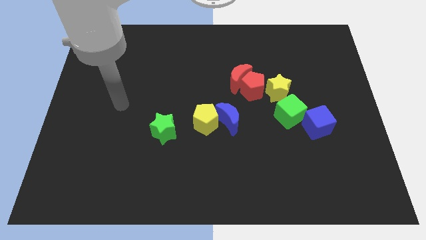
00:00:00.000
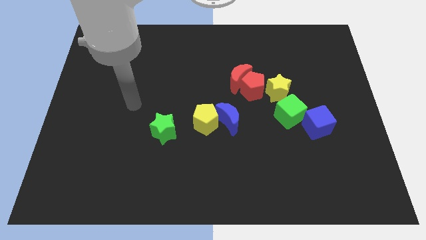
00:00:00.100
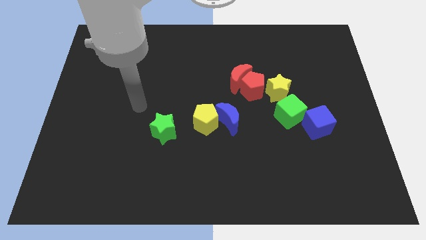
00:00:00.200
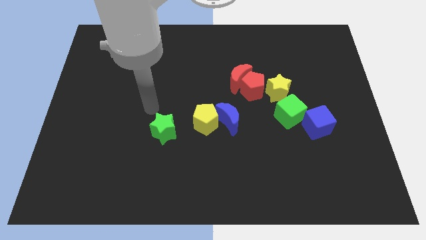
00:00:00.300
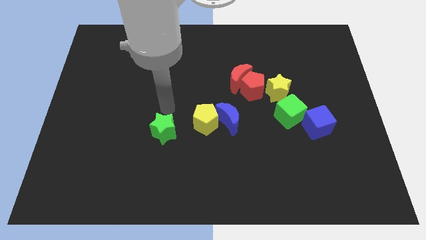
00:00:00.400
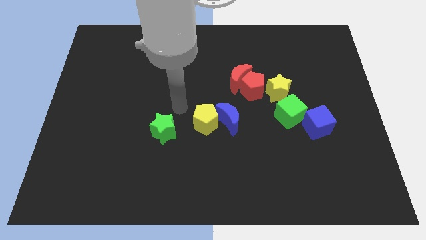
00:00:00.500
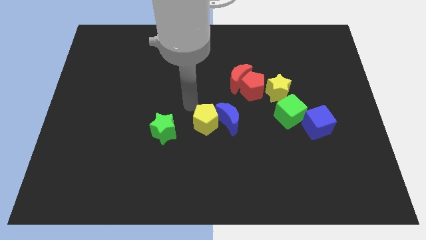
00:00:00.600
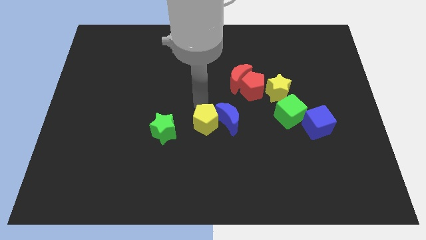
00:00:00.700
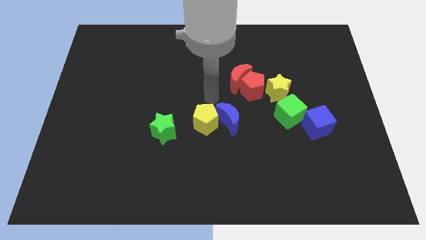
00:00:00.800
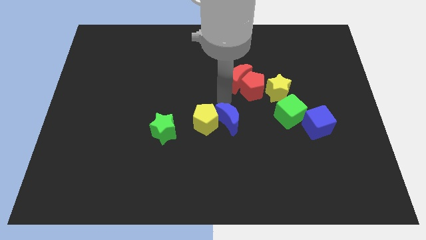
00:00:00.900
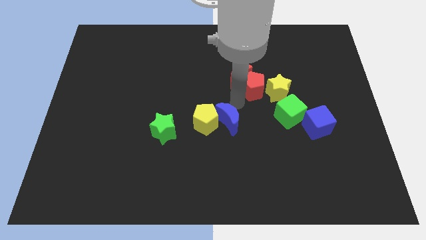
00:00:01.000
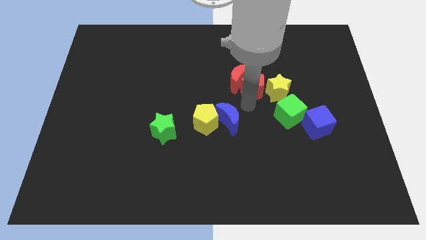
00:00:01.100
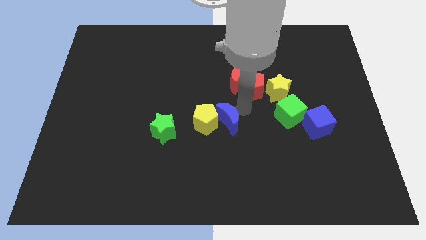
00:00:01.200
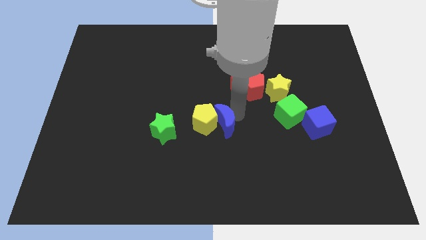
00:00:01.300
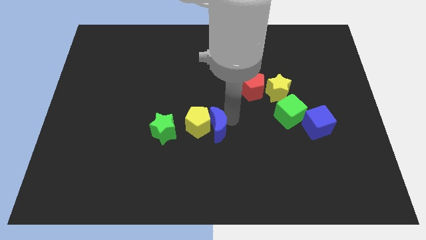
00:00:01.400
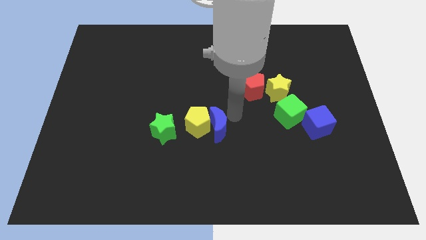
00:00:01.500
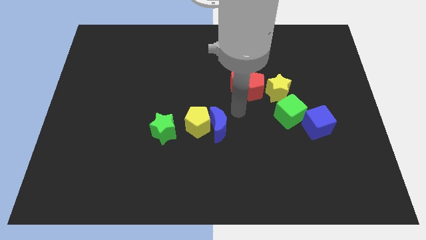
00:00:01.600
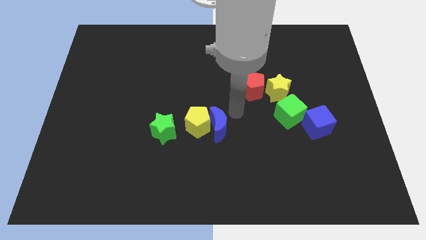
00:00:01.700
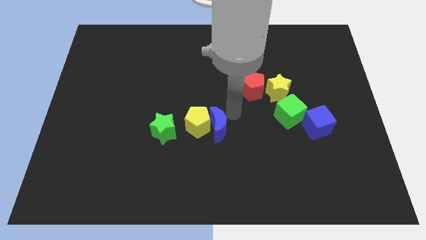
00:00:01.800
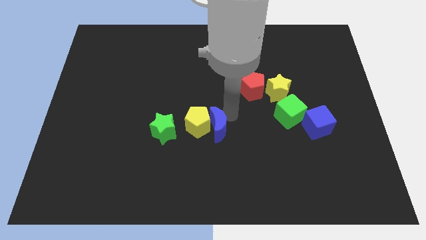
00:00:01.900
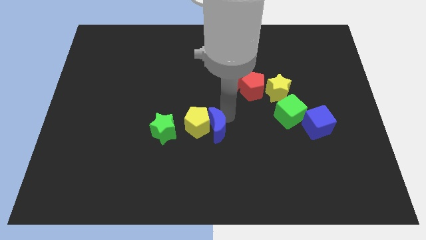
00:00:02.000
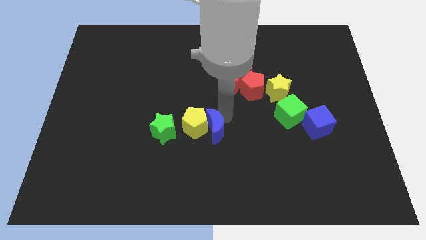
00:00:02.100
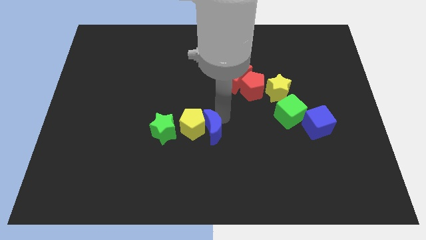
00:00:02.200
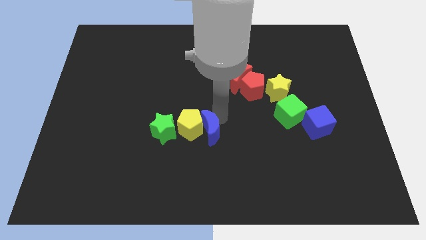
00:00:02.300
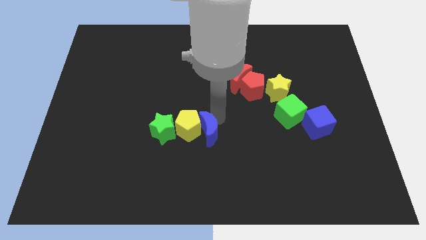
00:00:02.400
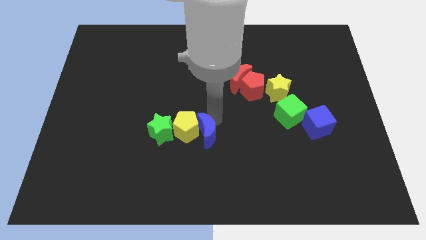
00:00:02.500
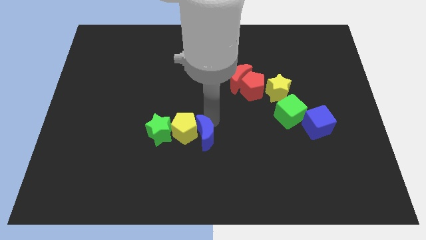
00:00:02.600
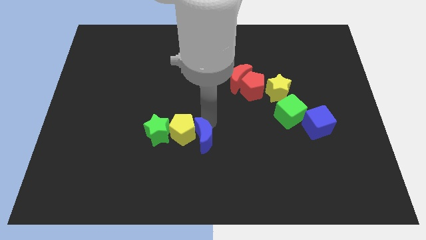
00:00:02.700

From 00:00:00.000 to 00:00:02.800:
push the blue moon a bit down and then to the left

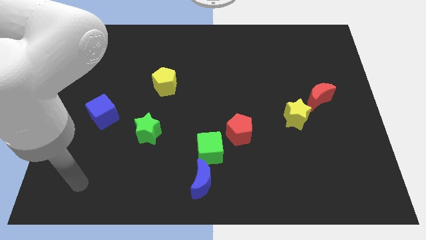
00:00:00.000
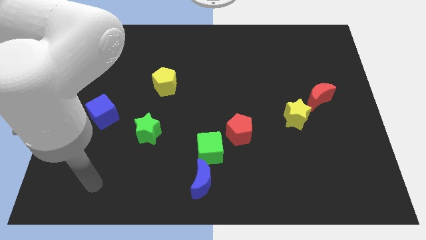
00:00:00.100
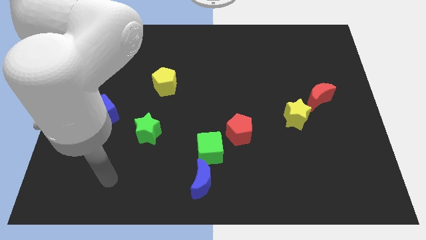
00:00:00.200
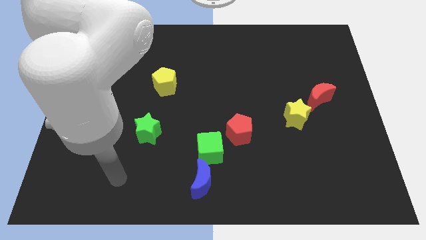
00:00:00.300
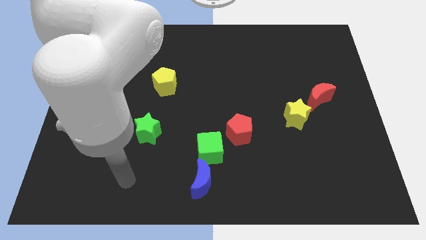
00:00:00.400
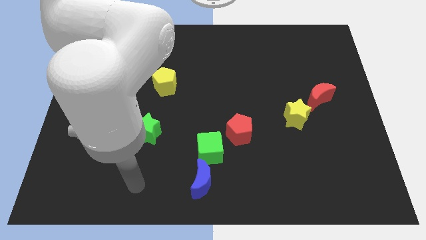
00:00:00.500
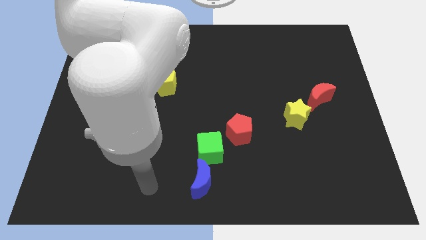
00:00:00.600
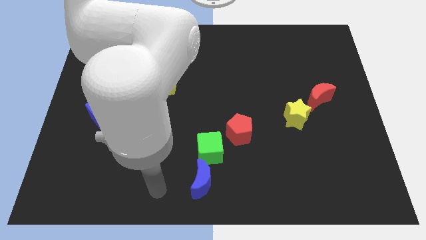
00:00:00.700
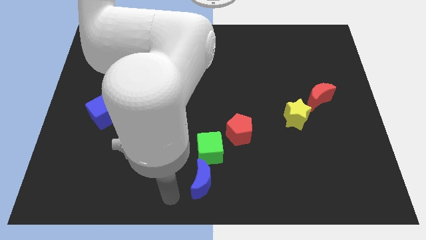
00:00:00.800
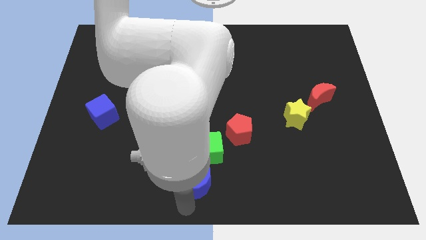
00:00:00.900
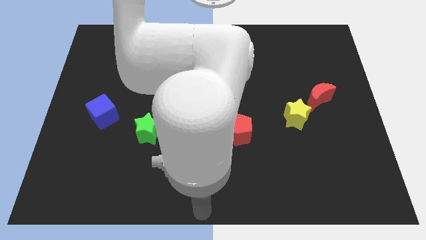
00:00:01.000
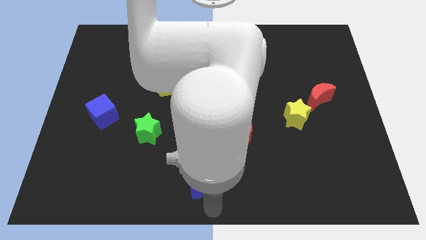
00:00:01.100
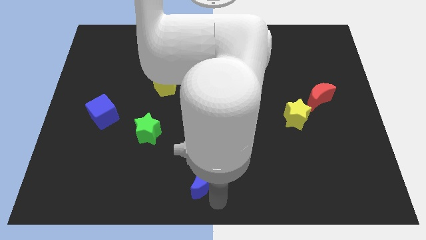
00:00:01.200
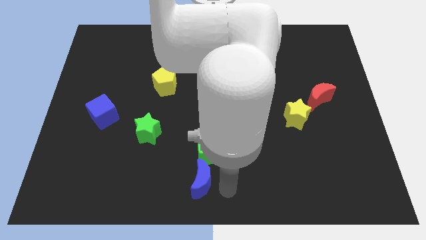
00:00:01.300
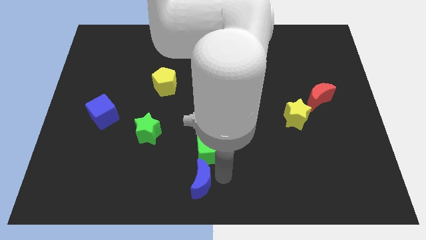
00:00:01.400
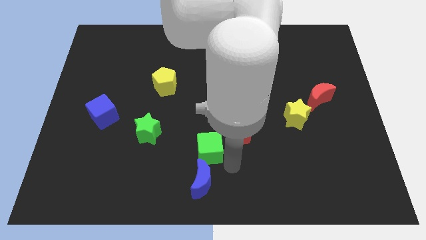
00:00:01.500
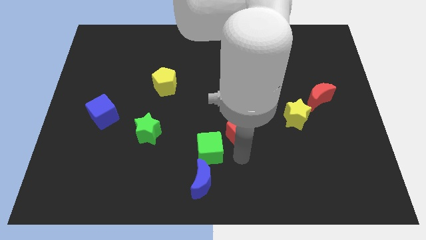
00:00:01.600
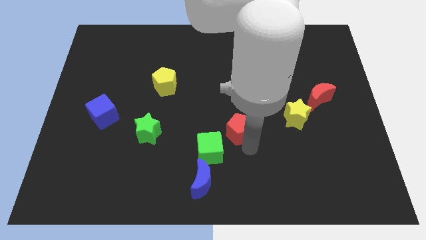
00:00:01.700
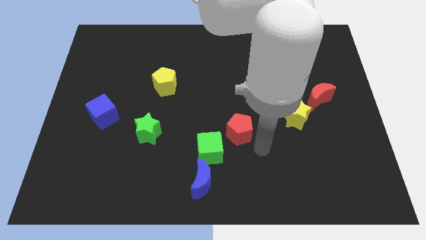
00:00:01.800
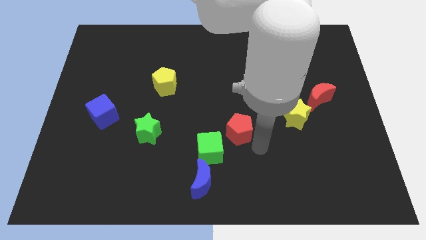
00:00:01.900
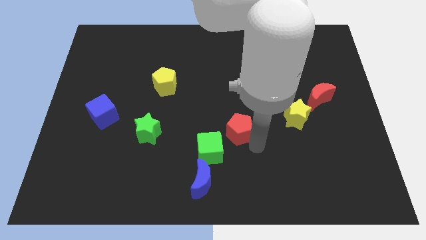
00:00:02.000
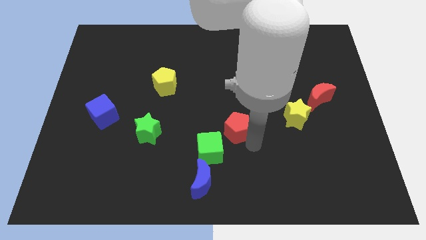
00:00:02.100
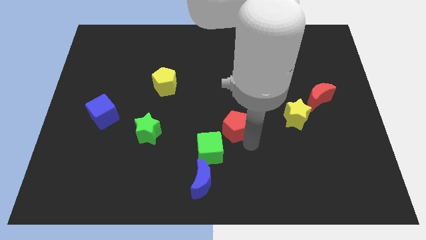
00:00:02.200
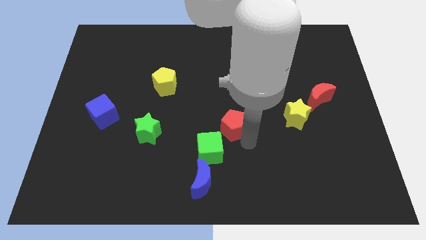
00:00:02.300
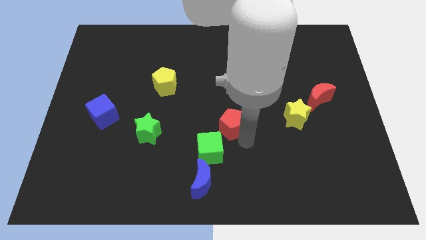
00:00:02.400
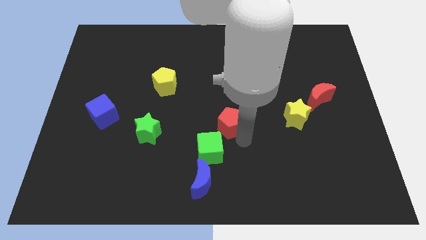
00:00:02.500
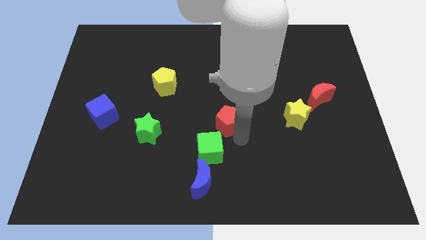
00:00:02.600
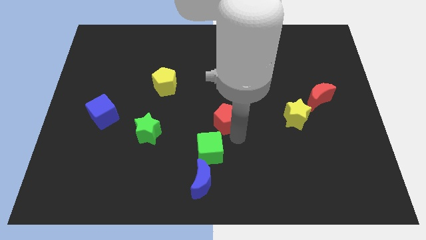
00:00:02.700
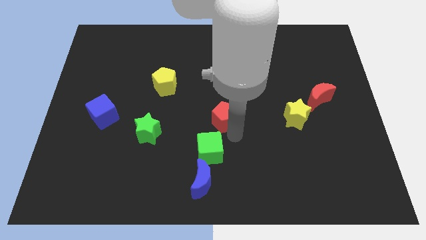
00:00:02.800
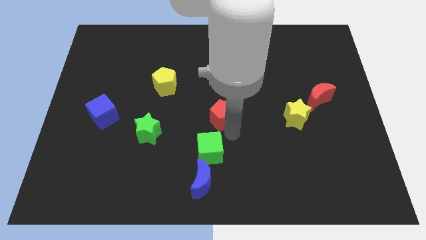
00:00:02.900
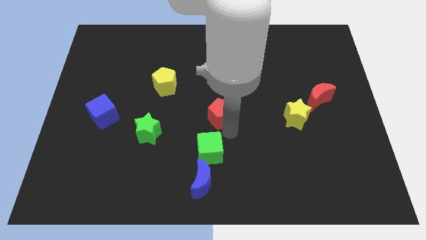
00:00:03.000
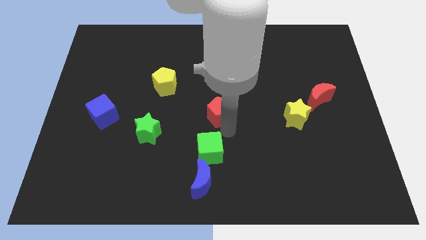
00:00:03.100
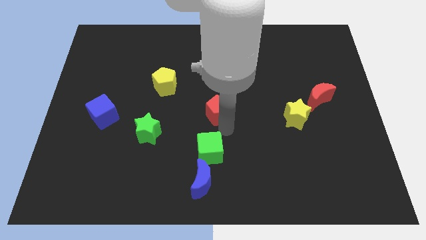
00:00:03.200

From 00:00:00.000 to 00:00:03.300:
push the red pentagon slightly diagonally upwards and to the left

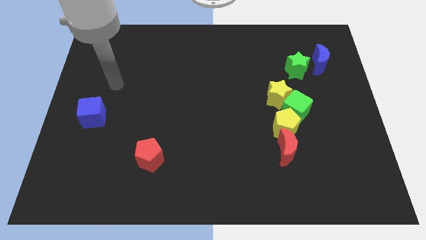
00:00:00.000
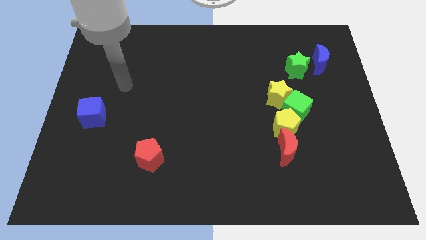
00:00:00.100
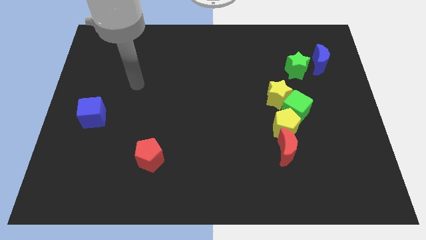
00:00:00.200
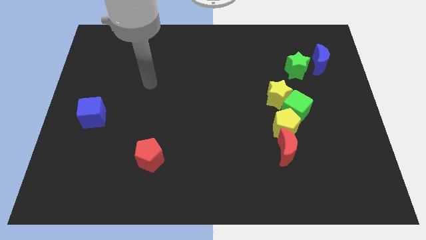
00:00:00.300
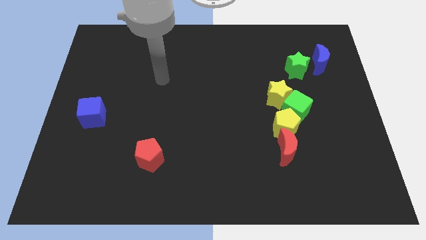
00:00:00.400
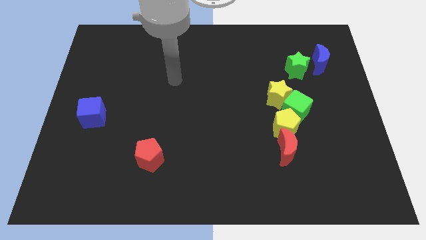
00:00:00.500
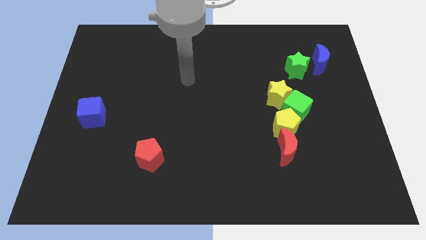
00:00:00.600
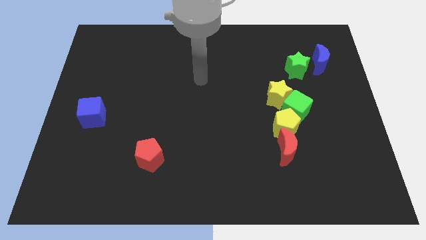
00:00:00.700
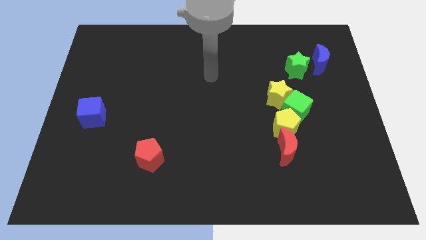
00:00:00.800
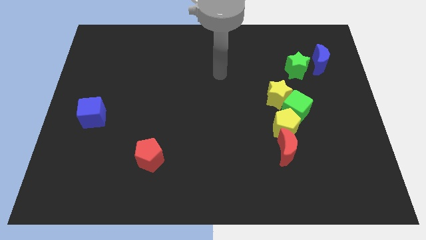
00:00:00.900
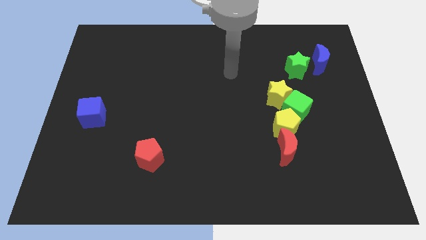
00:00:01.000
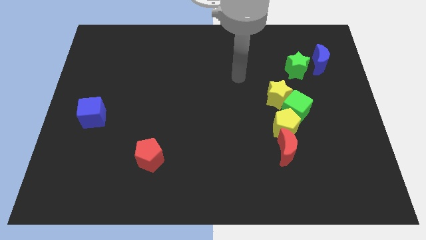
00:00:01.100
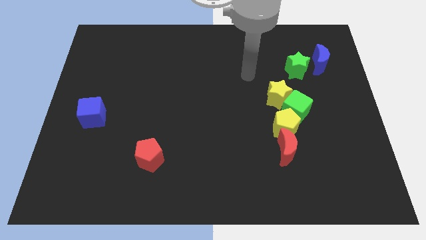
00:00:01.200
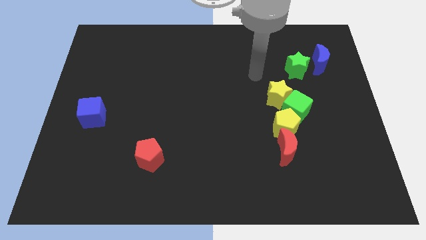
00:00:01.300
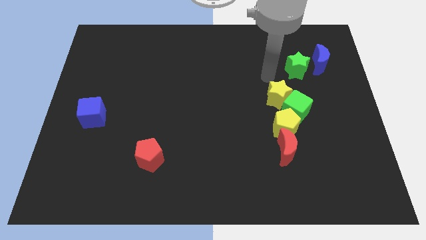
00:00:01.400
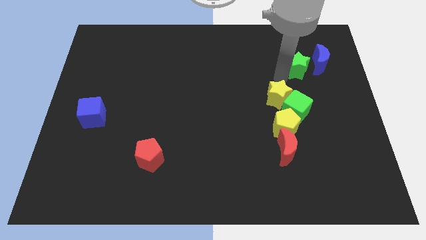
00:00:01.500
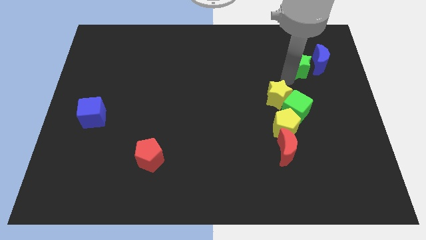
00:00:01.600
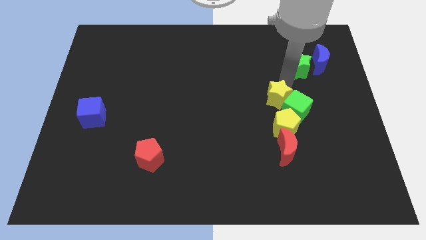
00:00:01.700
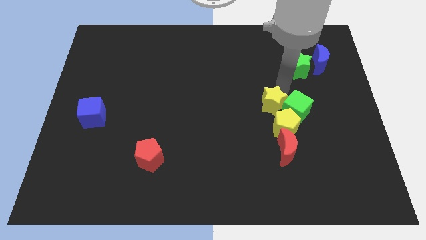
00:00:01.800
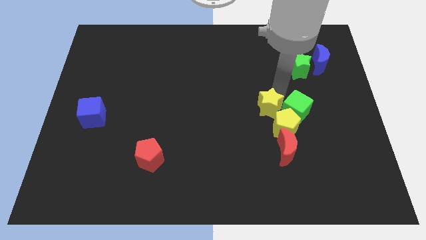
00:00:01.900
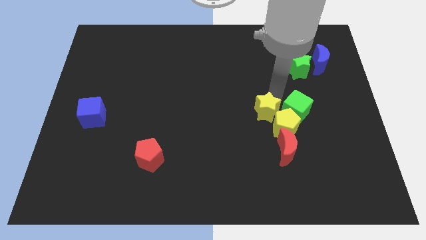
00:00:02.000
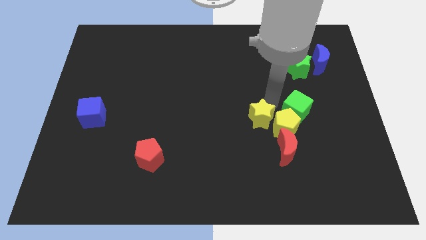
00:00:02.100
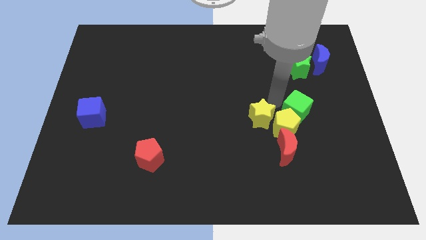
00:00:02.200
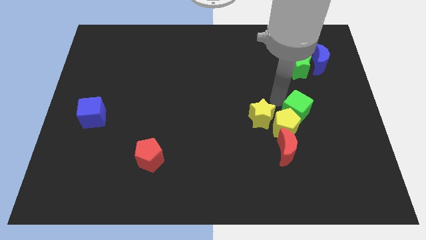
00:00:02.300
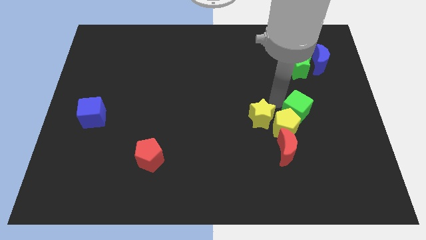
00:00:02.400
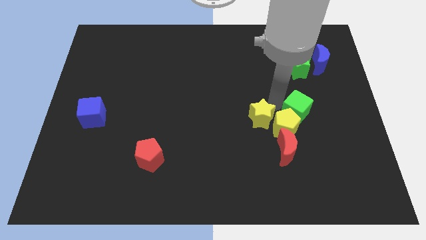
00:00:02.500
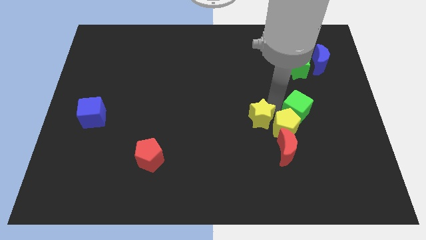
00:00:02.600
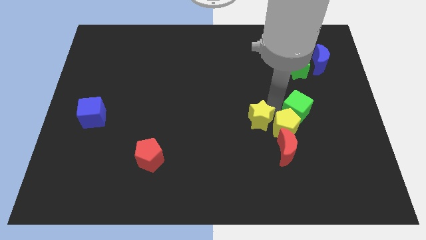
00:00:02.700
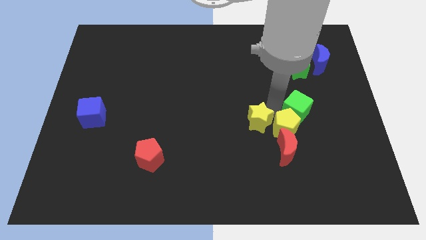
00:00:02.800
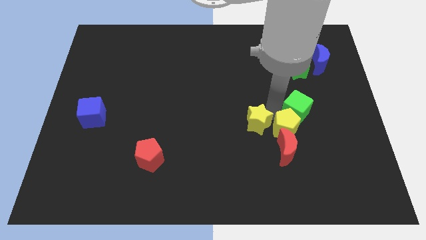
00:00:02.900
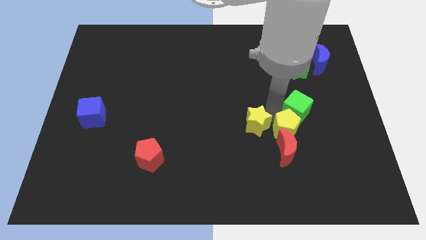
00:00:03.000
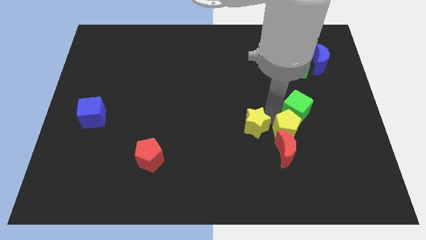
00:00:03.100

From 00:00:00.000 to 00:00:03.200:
move the yellow star a little bit downwards
